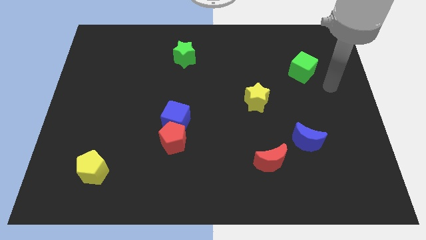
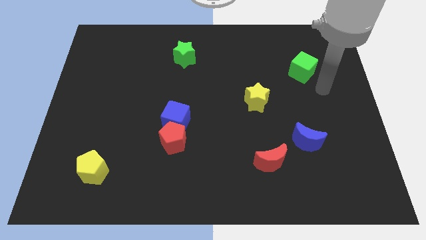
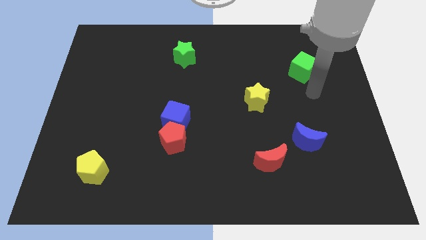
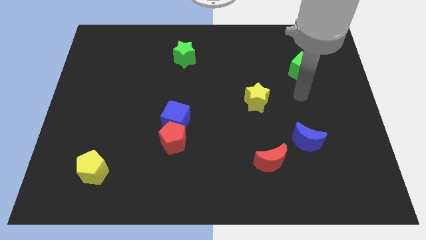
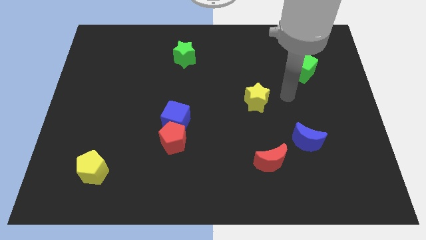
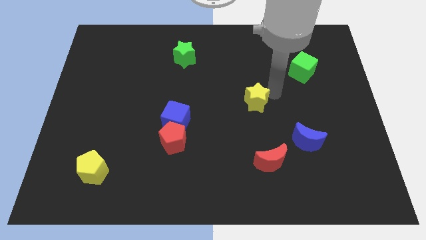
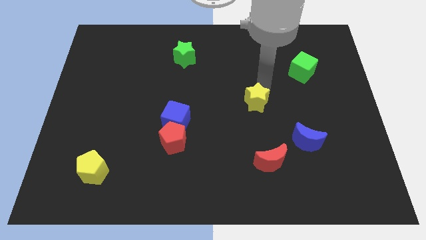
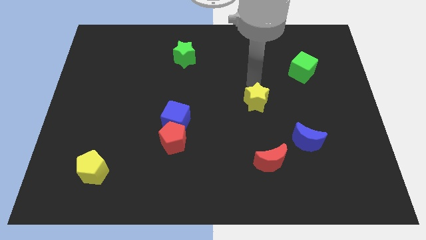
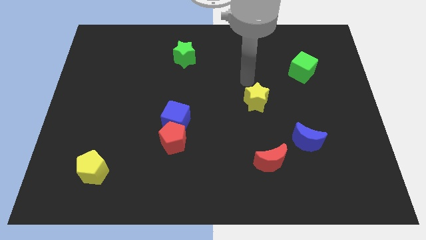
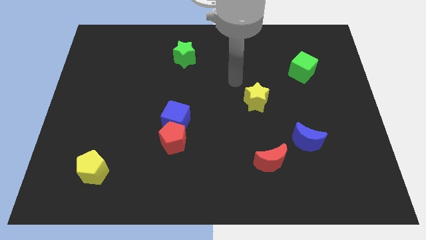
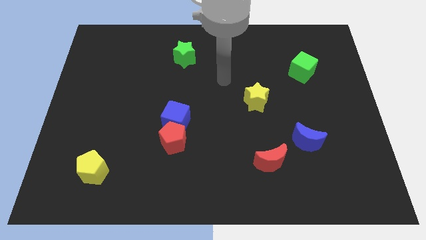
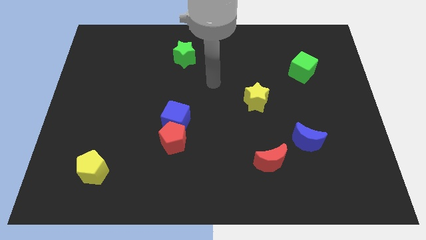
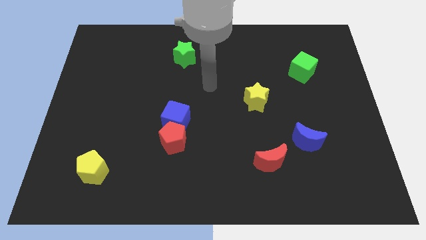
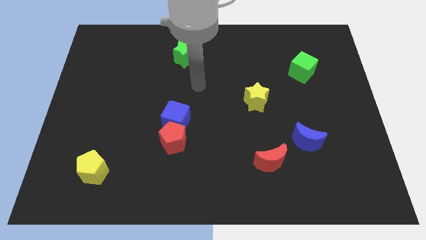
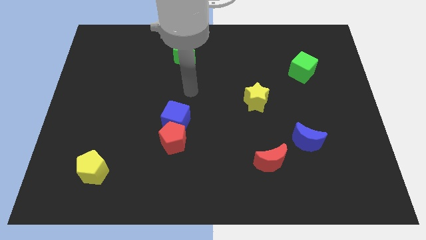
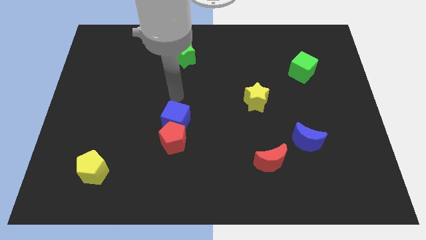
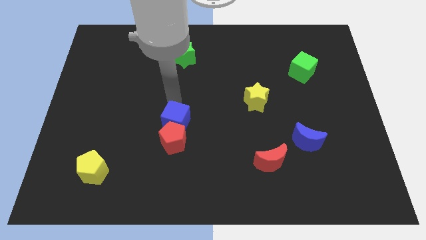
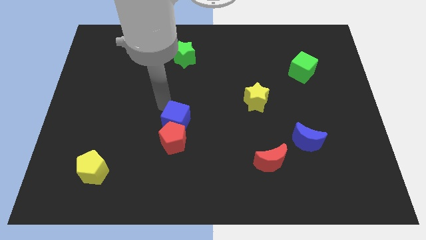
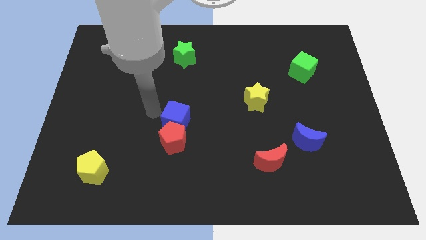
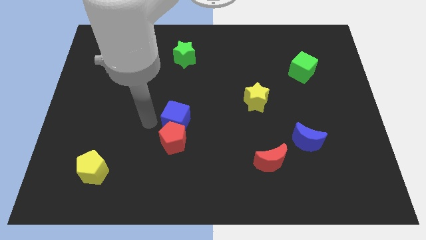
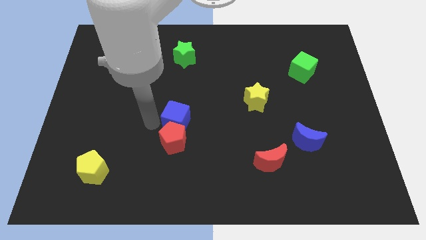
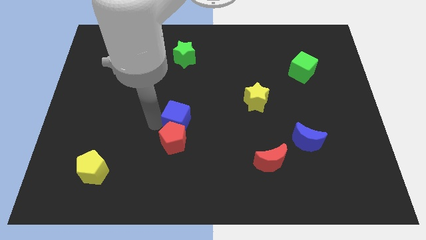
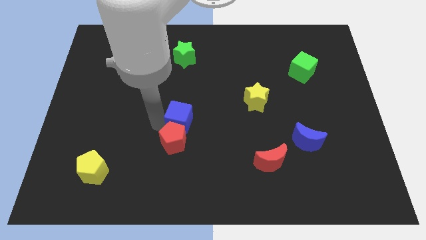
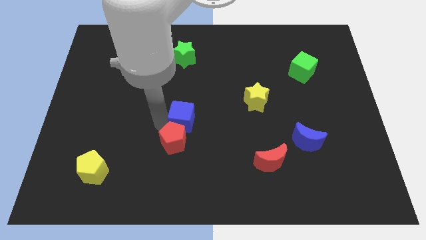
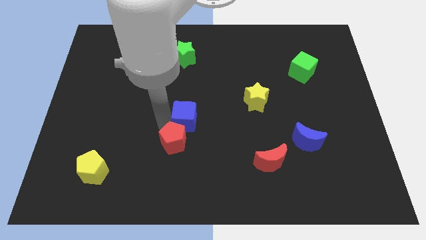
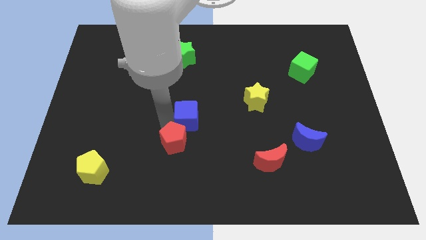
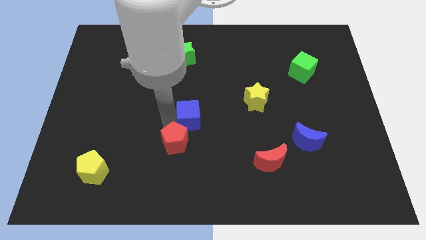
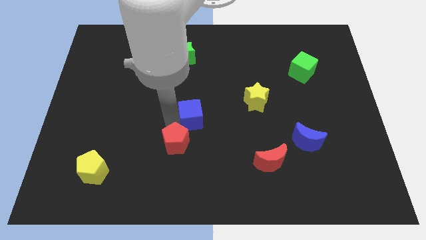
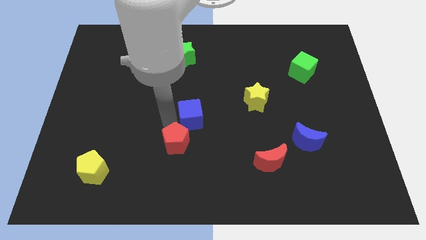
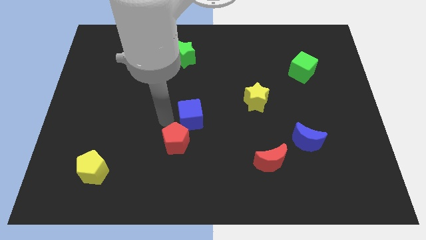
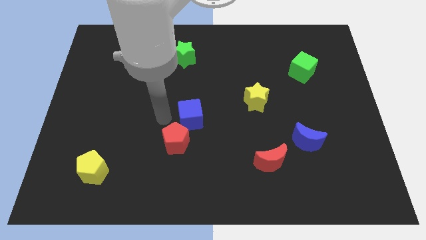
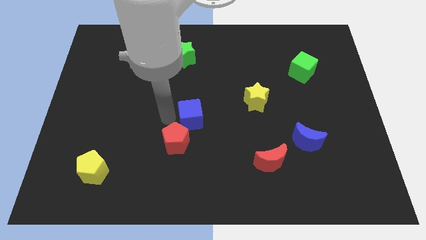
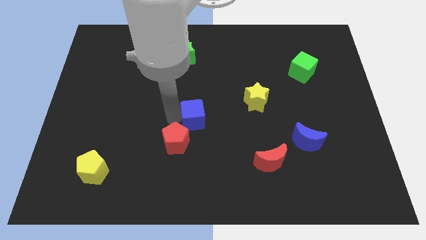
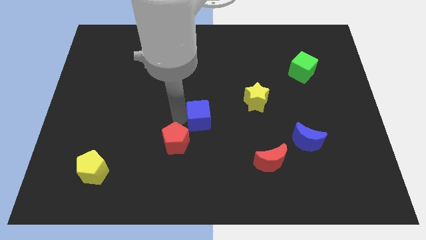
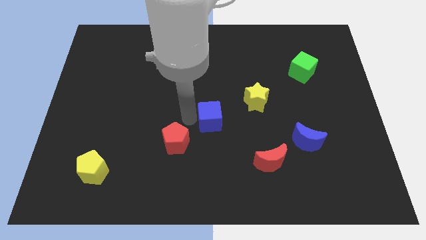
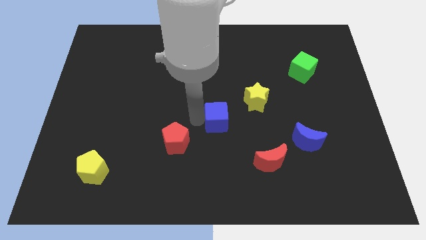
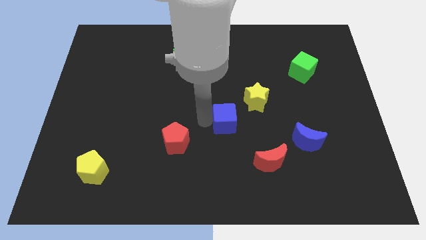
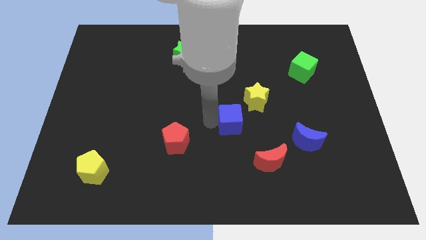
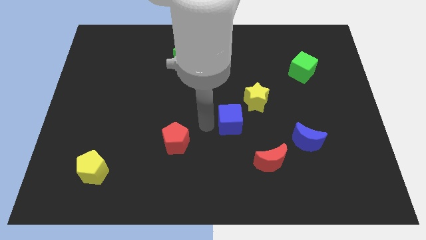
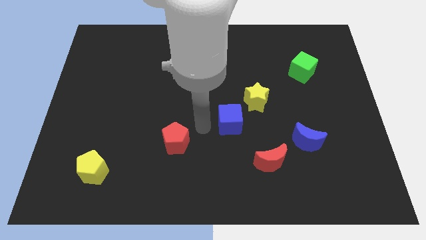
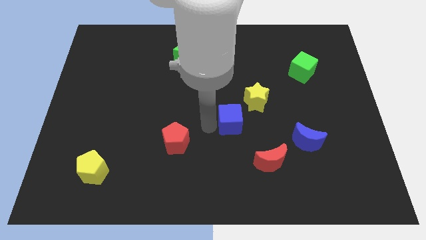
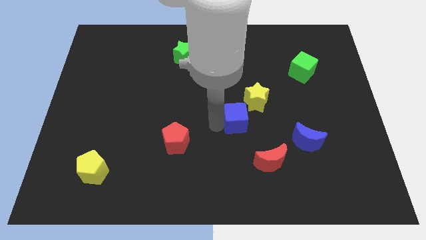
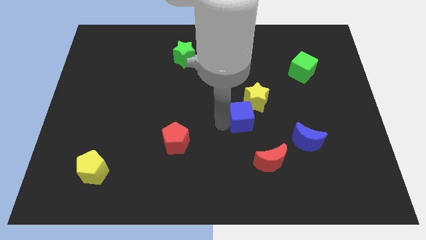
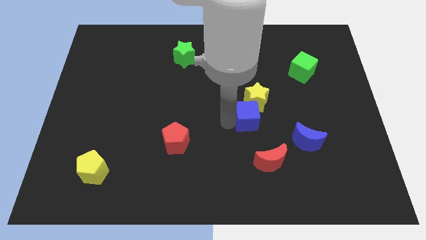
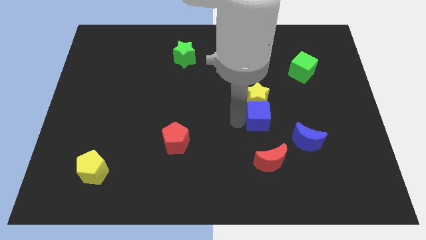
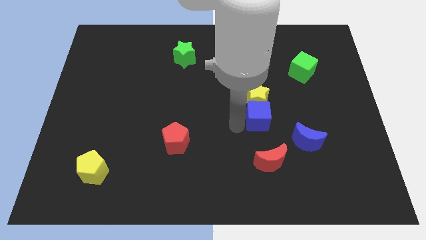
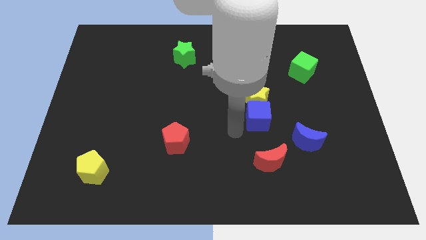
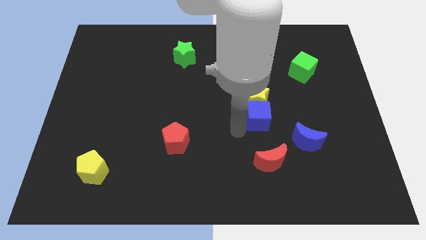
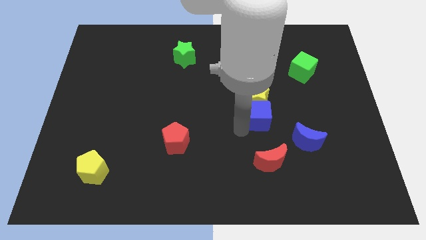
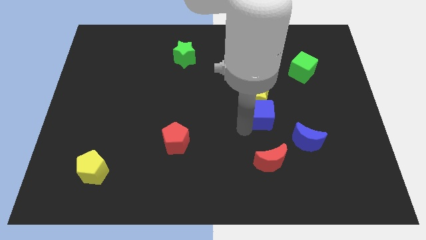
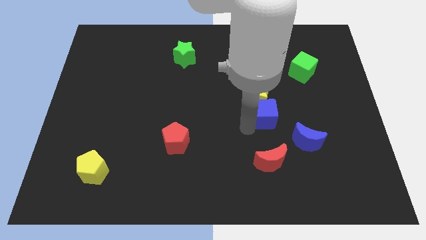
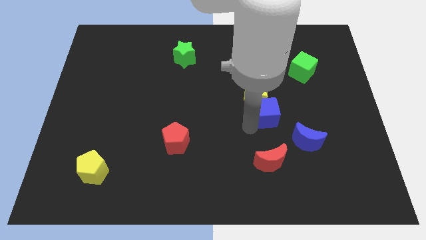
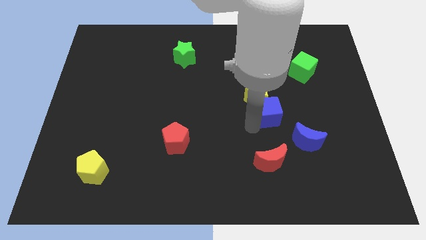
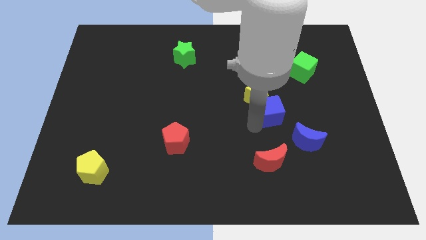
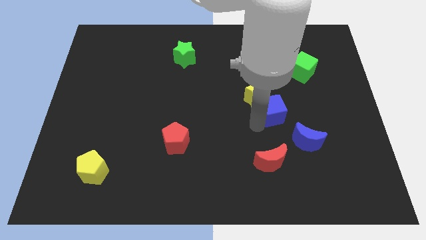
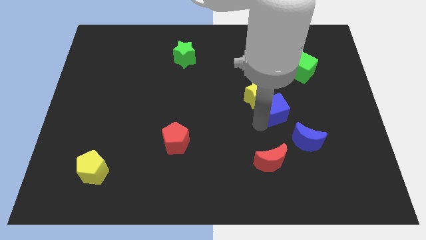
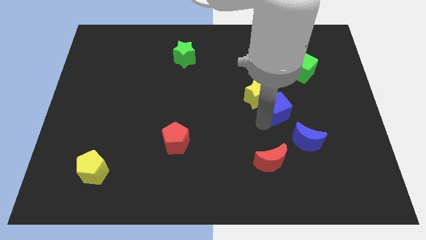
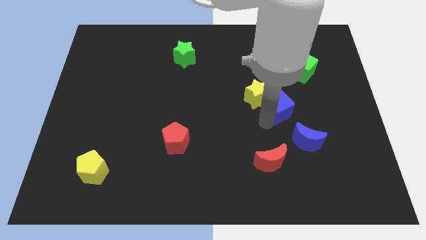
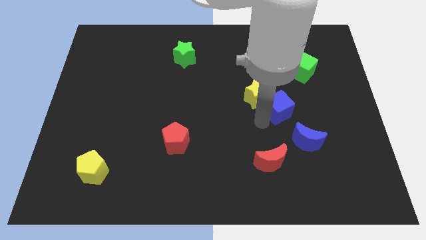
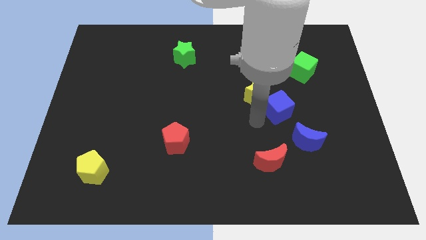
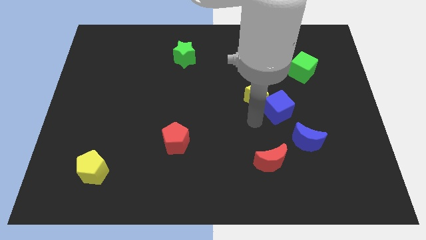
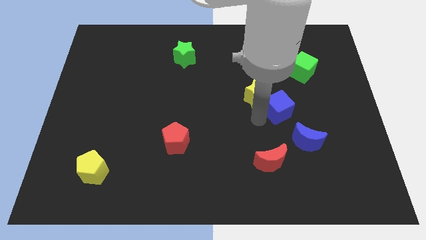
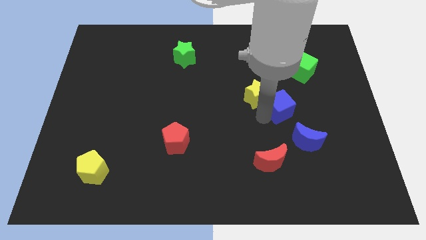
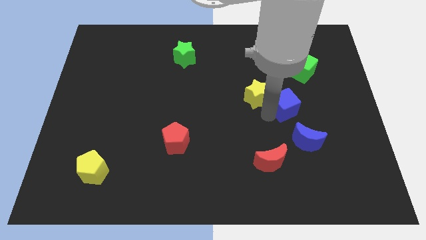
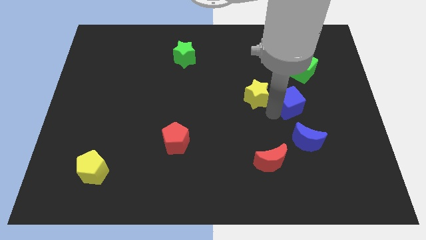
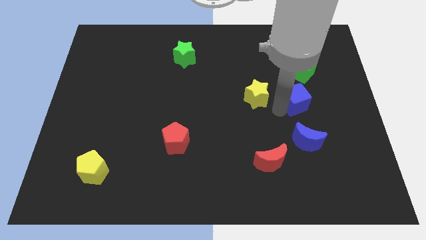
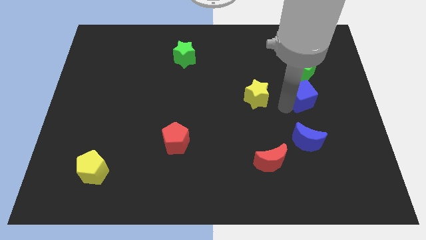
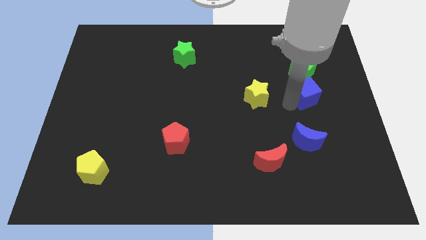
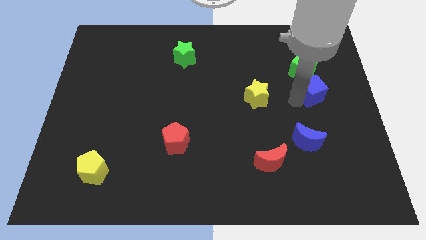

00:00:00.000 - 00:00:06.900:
slide the blue cube diagonally down and to the right of the green cube

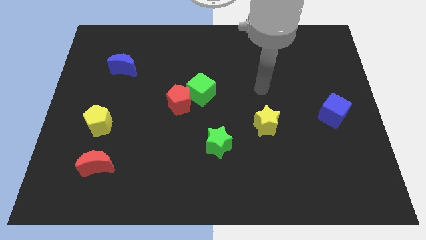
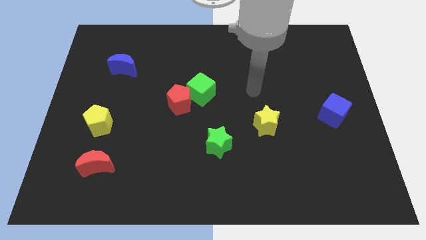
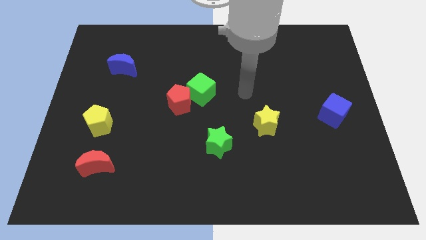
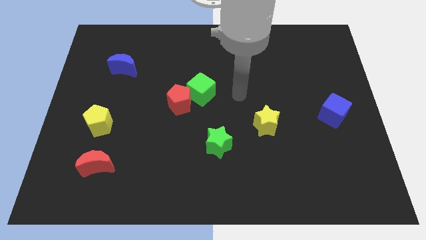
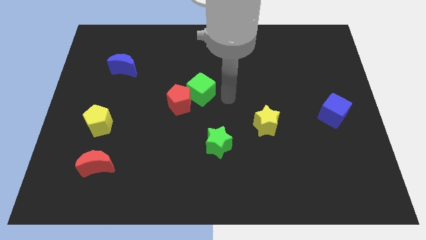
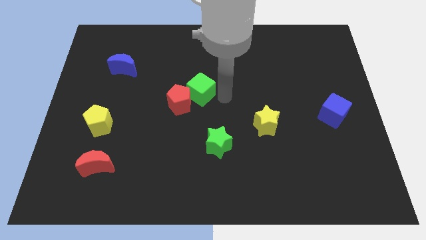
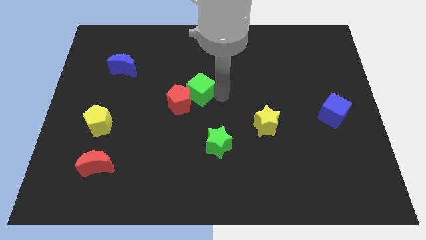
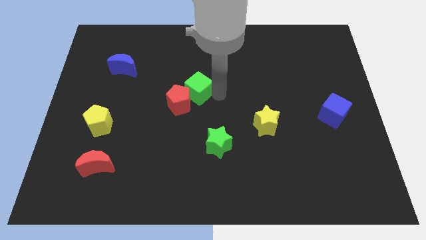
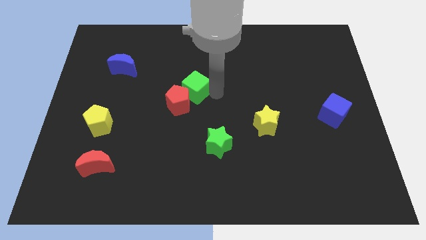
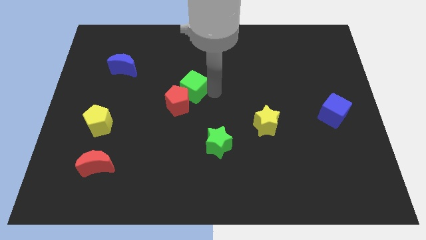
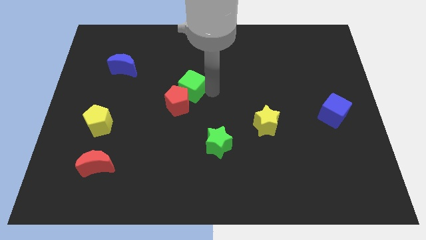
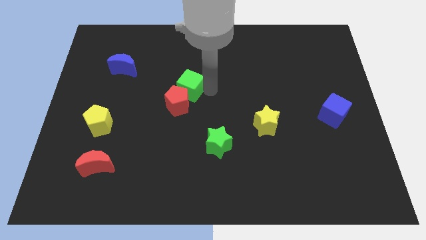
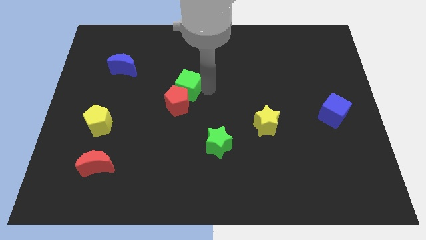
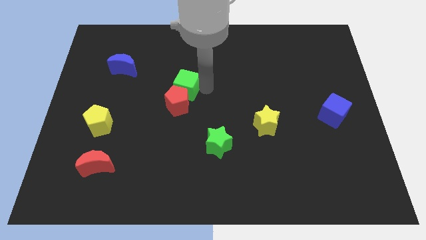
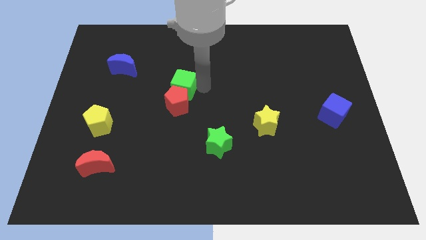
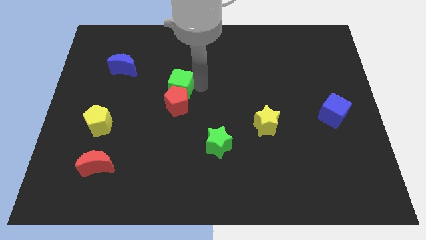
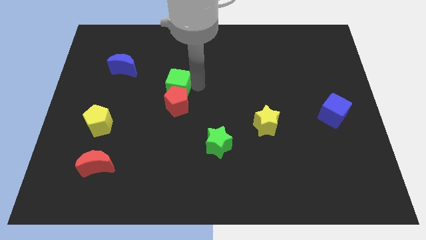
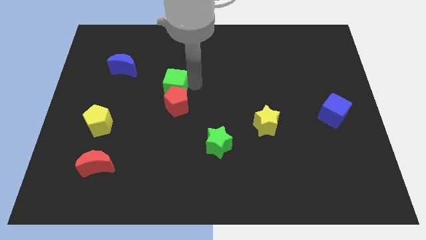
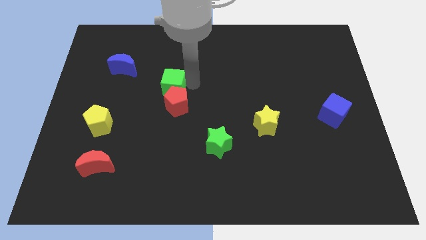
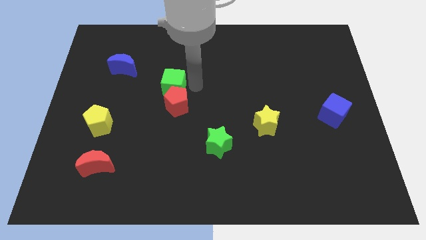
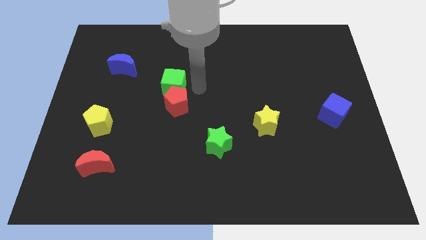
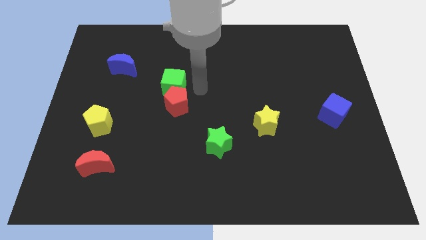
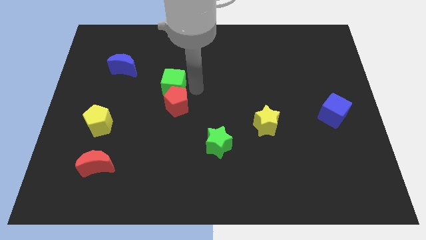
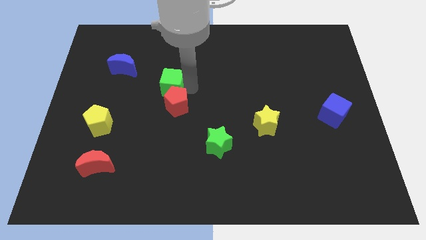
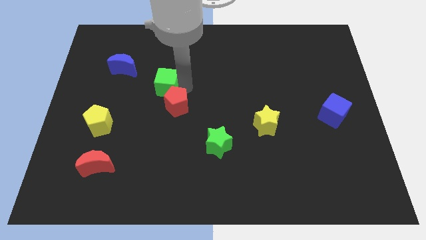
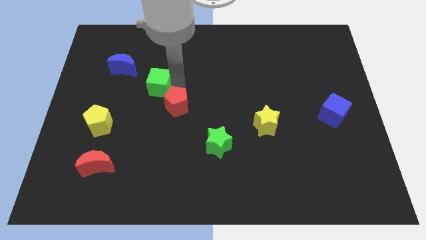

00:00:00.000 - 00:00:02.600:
slide the green cube to the bottom right of the blue moon
